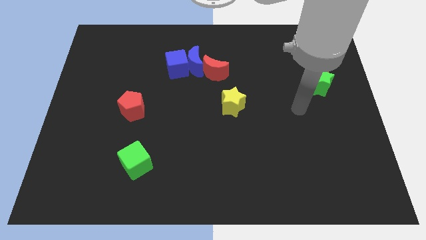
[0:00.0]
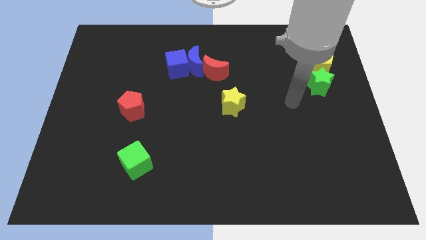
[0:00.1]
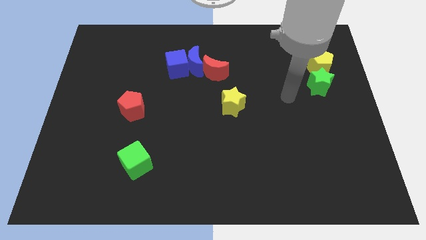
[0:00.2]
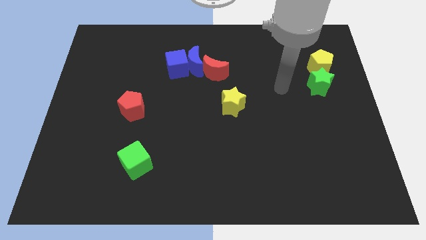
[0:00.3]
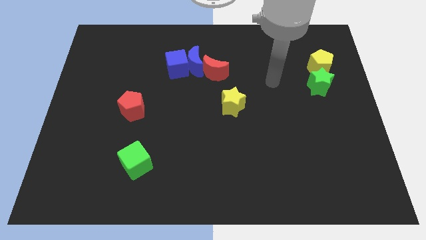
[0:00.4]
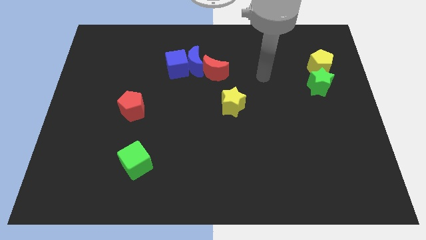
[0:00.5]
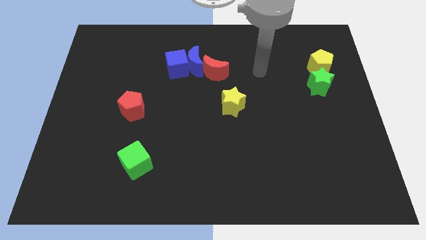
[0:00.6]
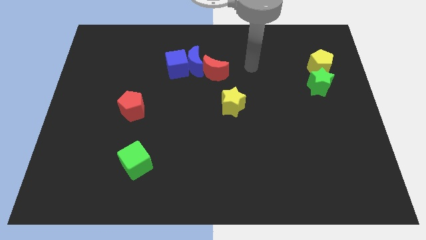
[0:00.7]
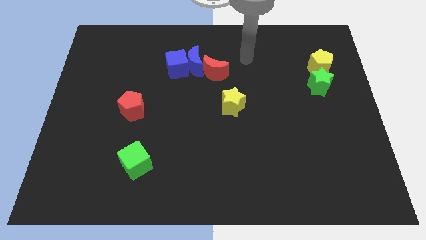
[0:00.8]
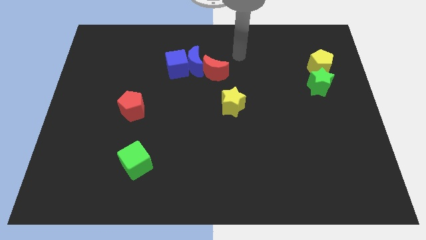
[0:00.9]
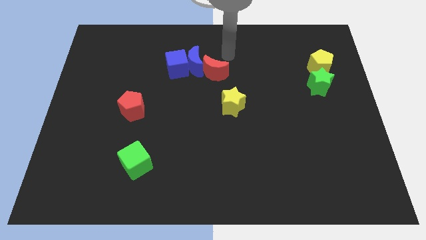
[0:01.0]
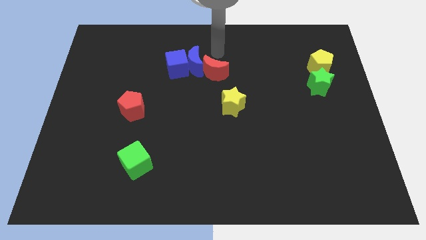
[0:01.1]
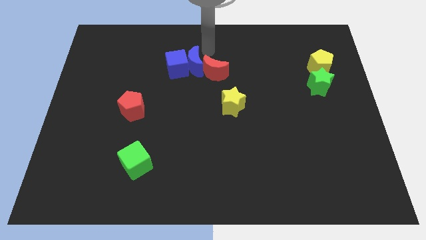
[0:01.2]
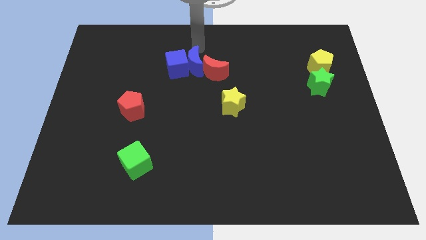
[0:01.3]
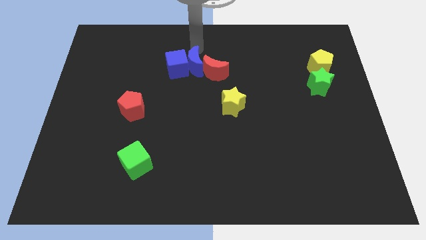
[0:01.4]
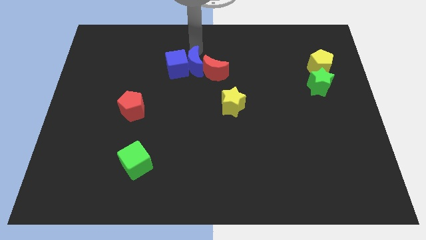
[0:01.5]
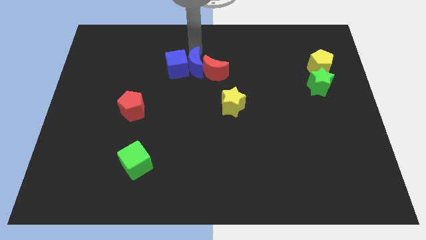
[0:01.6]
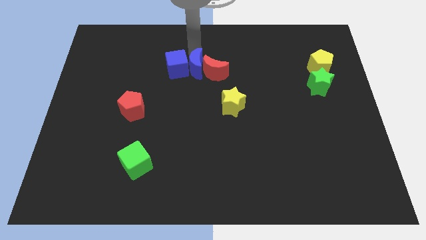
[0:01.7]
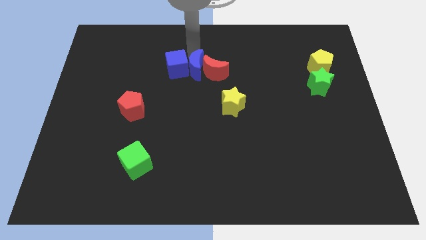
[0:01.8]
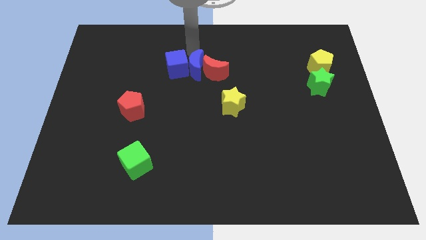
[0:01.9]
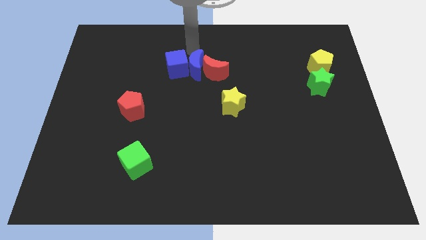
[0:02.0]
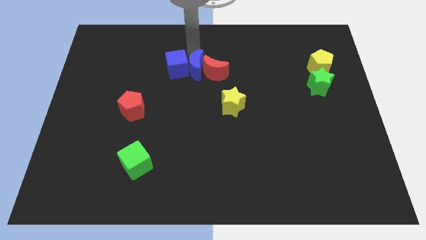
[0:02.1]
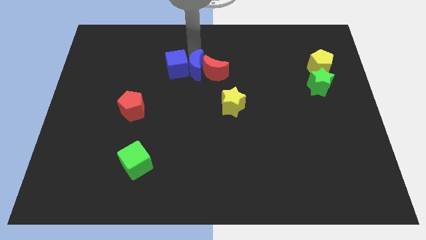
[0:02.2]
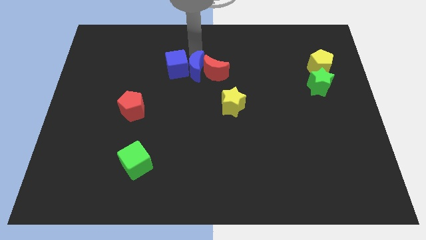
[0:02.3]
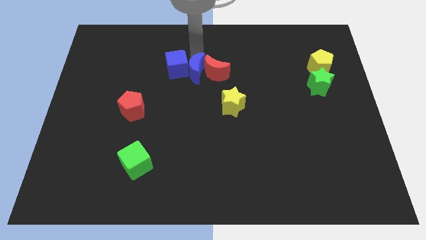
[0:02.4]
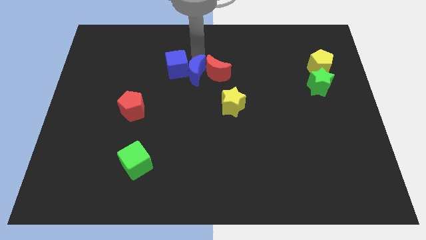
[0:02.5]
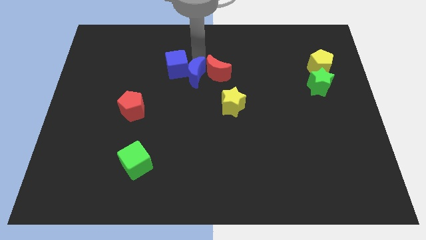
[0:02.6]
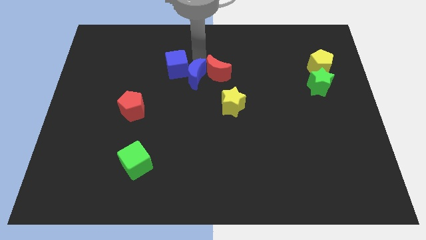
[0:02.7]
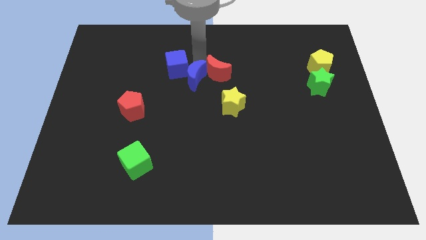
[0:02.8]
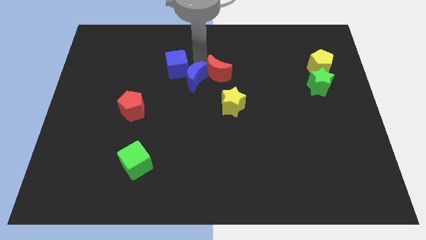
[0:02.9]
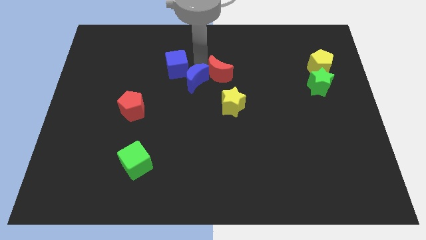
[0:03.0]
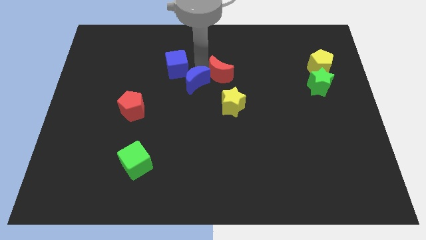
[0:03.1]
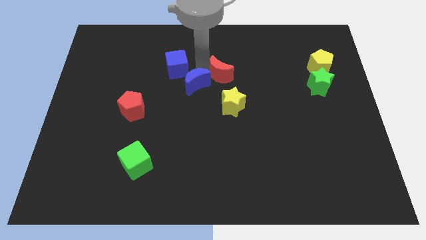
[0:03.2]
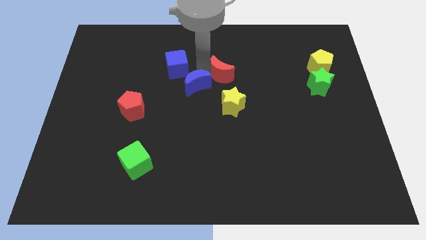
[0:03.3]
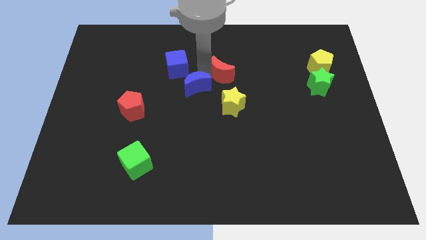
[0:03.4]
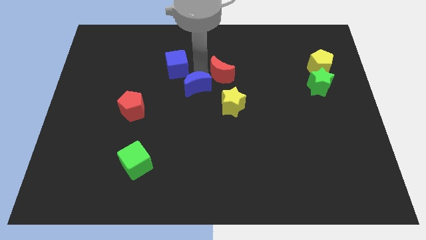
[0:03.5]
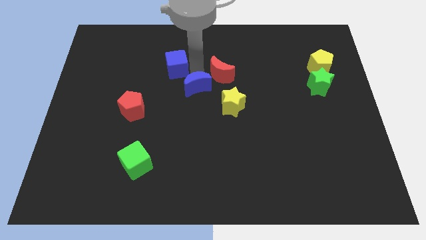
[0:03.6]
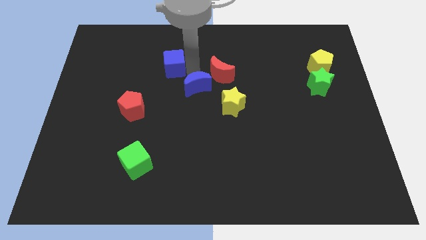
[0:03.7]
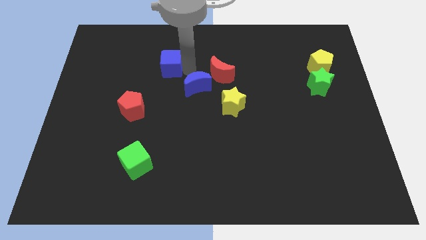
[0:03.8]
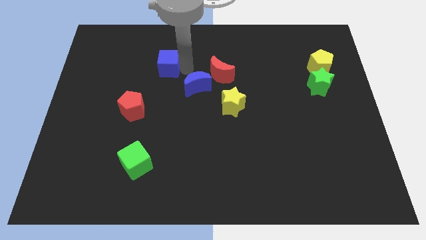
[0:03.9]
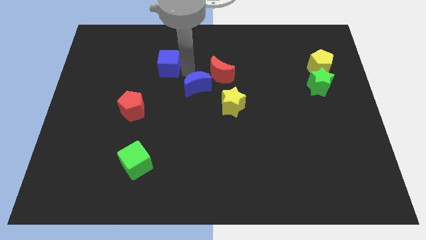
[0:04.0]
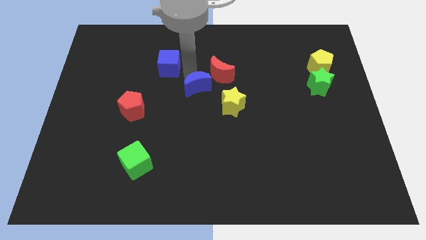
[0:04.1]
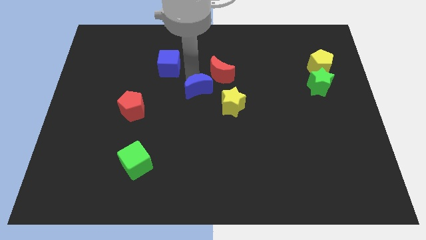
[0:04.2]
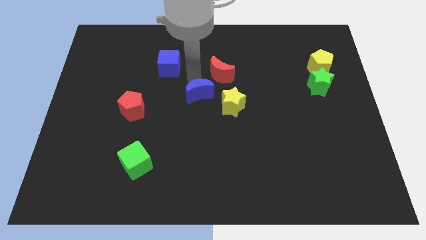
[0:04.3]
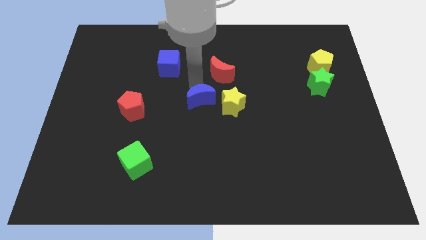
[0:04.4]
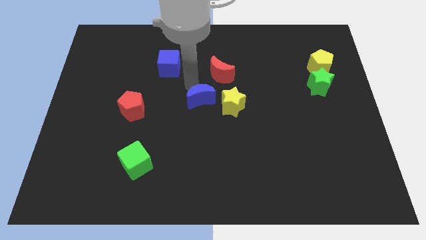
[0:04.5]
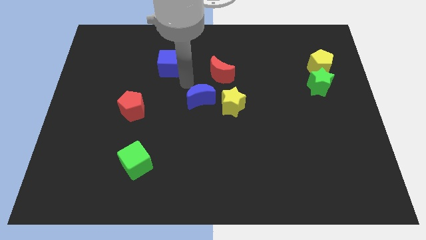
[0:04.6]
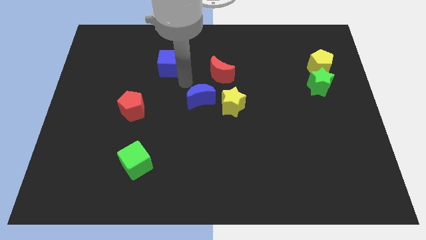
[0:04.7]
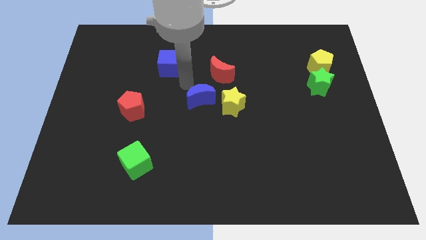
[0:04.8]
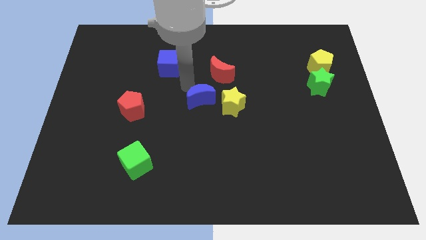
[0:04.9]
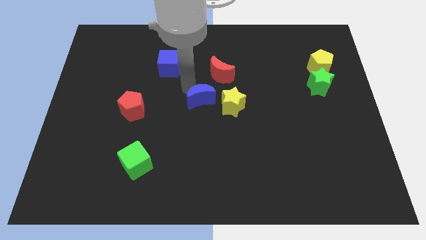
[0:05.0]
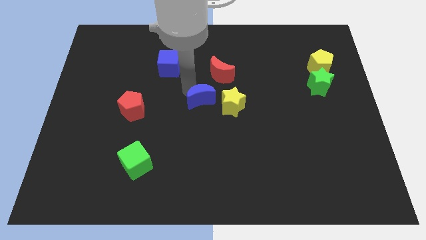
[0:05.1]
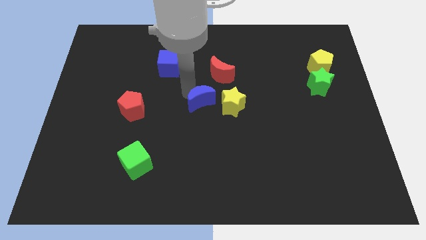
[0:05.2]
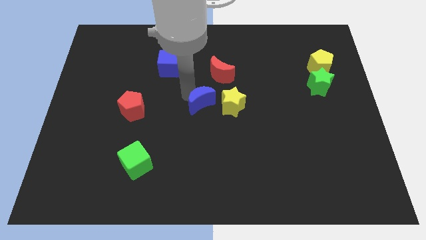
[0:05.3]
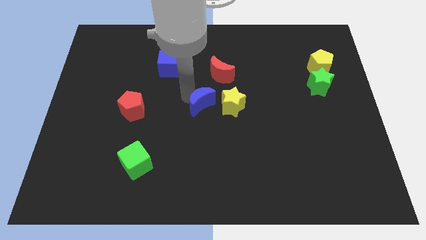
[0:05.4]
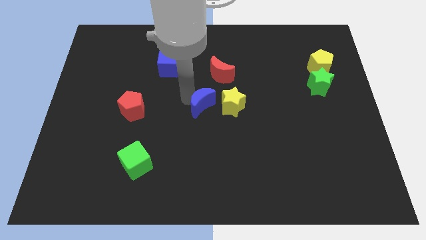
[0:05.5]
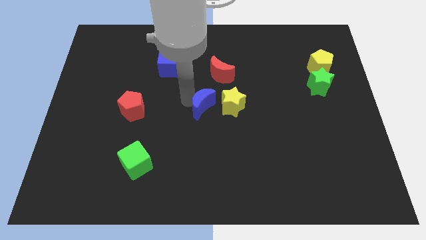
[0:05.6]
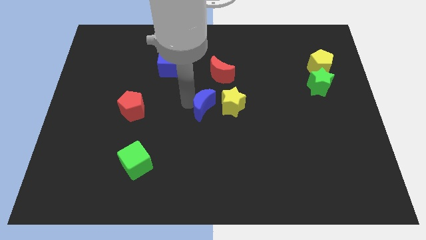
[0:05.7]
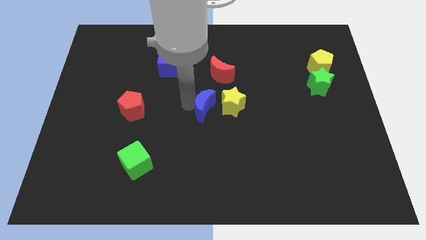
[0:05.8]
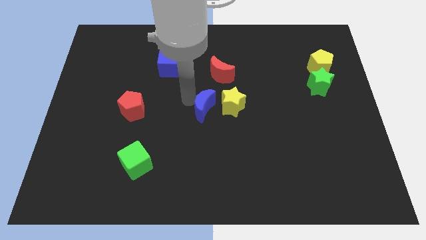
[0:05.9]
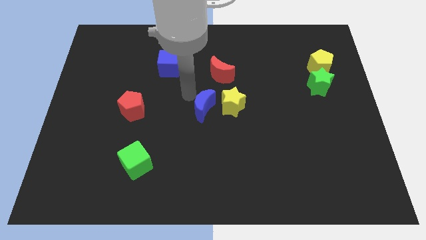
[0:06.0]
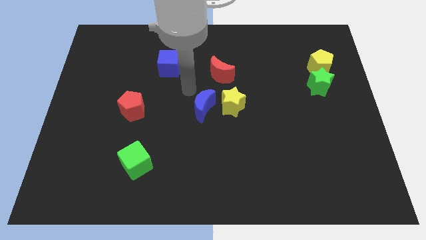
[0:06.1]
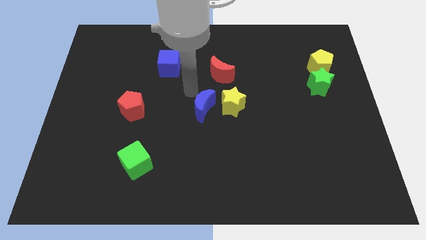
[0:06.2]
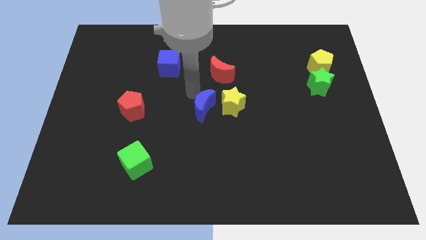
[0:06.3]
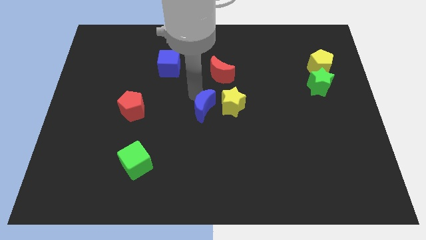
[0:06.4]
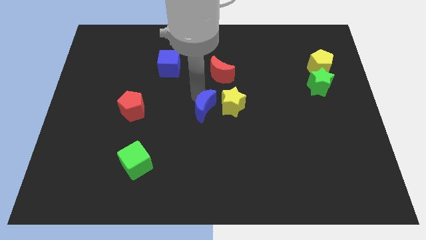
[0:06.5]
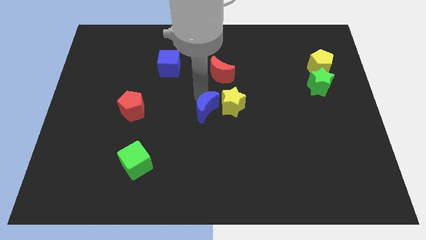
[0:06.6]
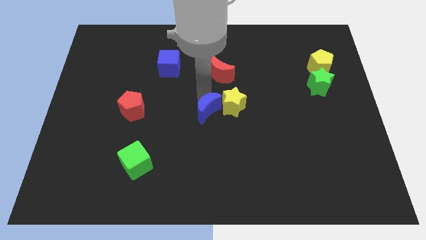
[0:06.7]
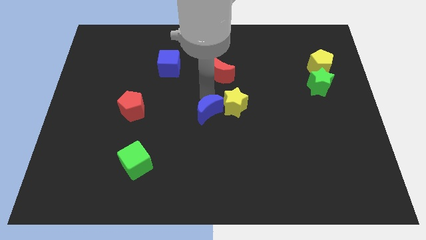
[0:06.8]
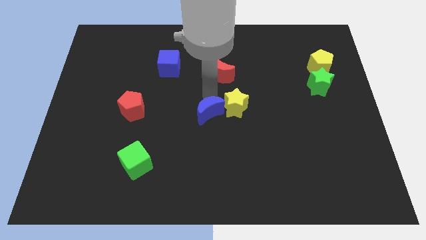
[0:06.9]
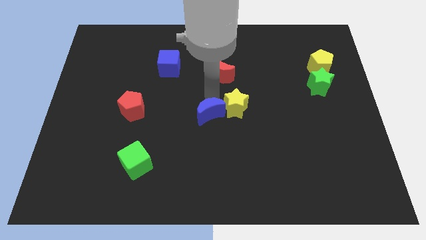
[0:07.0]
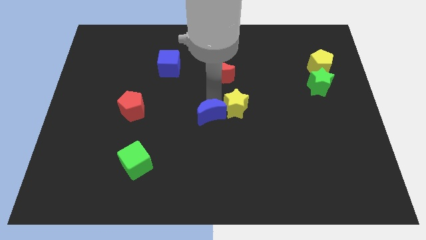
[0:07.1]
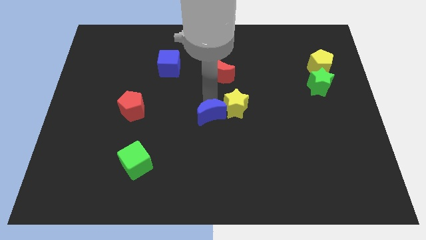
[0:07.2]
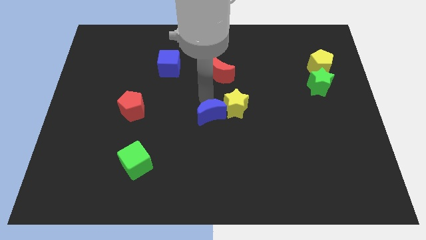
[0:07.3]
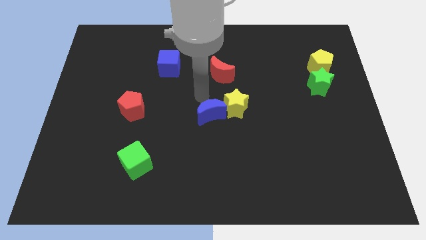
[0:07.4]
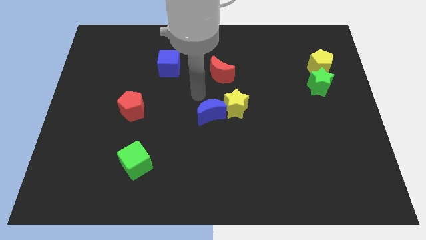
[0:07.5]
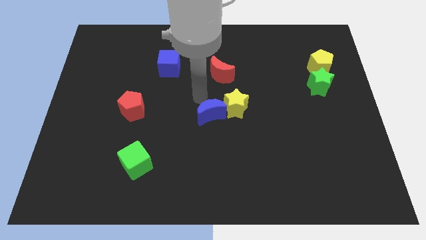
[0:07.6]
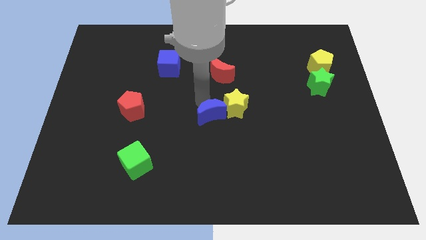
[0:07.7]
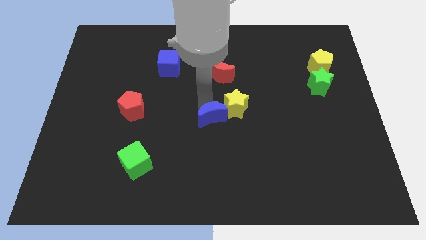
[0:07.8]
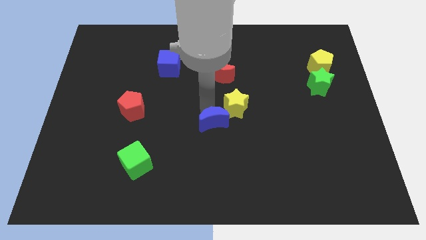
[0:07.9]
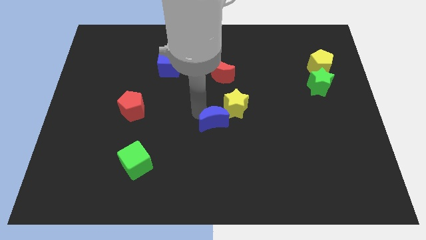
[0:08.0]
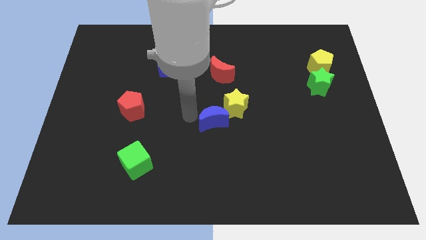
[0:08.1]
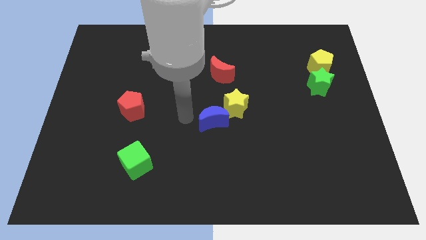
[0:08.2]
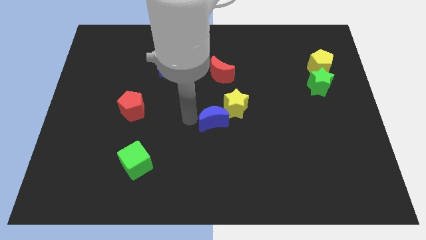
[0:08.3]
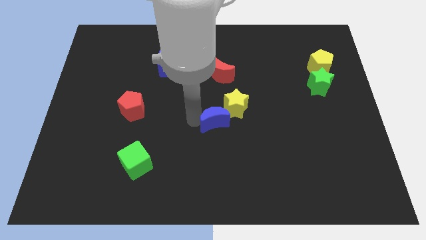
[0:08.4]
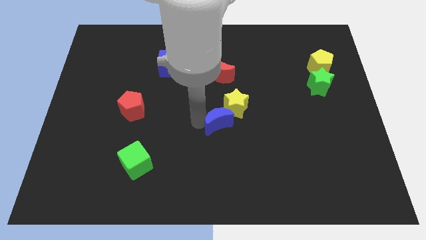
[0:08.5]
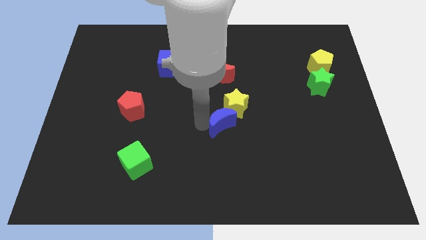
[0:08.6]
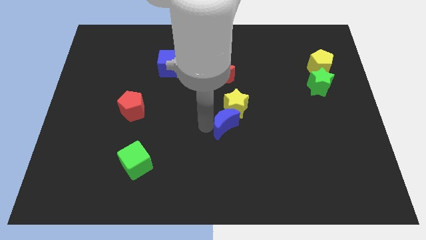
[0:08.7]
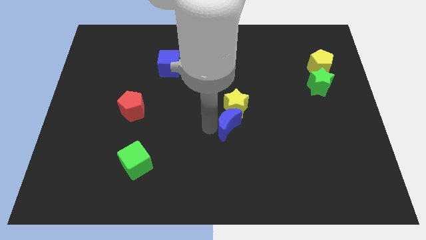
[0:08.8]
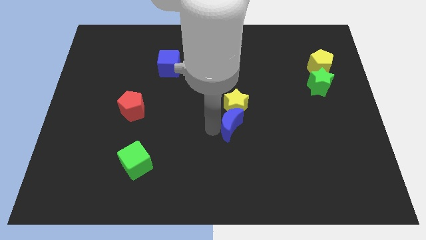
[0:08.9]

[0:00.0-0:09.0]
slide the blue moon diagonally down and to the right of the yellow star
